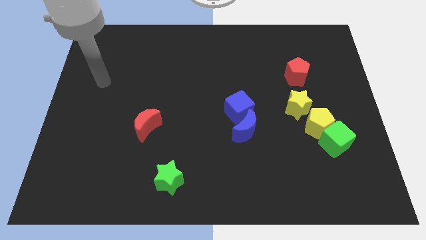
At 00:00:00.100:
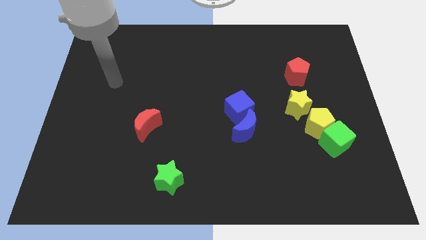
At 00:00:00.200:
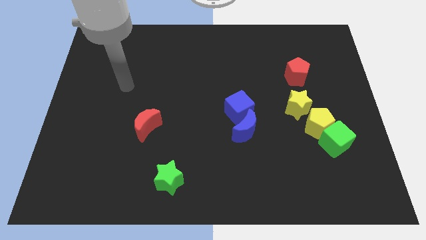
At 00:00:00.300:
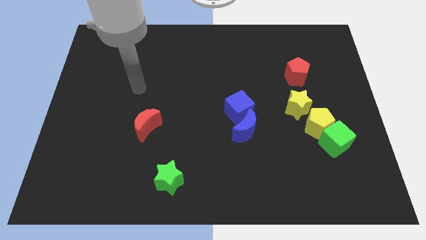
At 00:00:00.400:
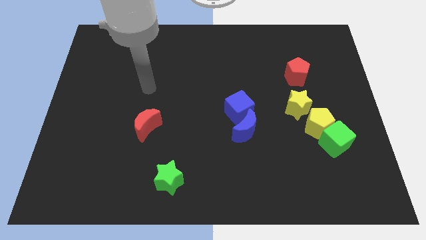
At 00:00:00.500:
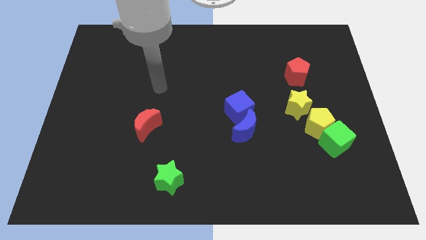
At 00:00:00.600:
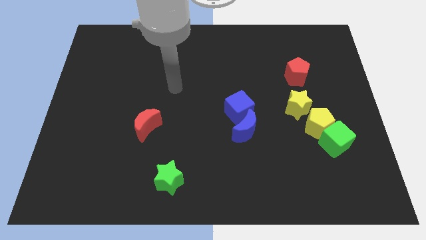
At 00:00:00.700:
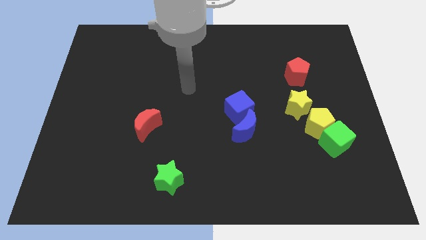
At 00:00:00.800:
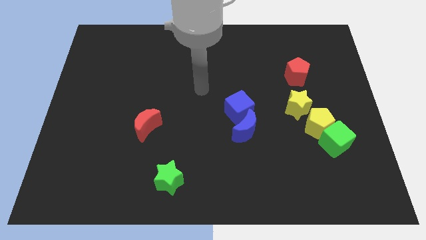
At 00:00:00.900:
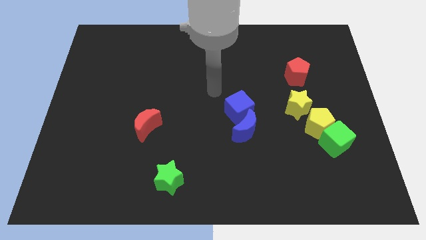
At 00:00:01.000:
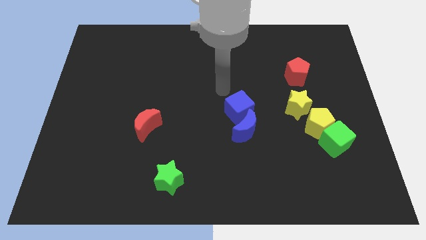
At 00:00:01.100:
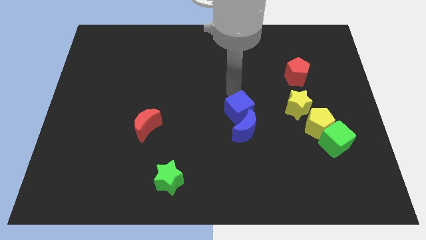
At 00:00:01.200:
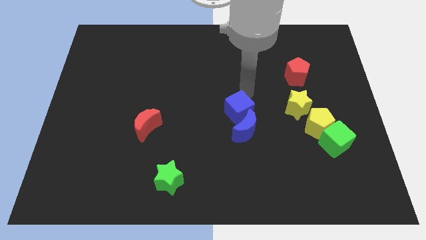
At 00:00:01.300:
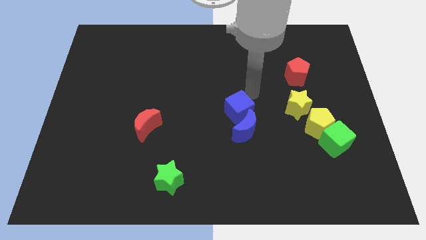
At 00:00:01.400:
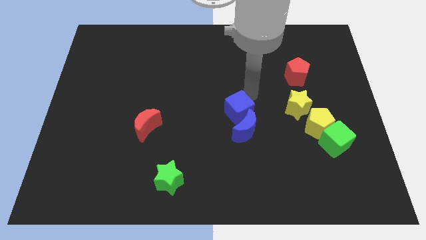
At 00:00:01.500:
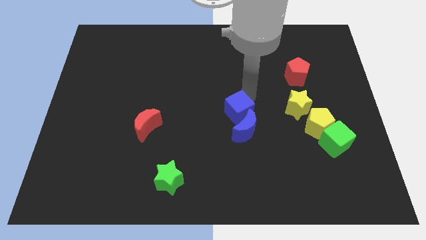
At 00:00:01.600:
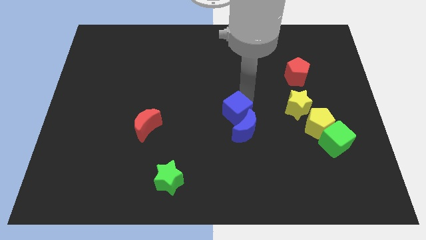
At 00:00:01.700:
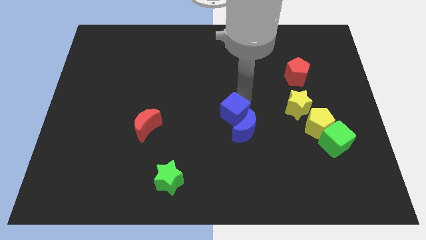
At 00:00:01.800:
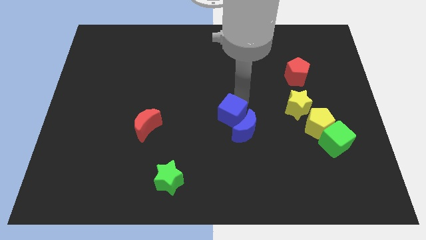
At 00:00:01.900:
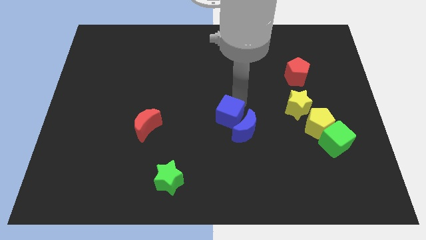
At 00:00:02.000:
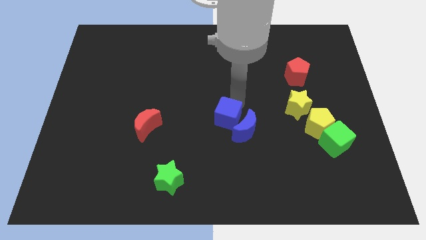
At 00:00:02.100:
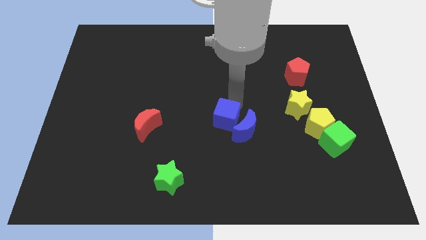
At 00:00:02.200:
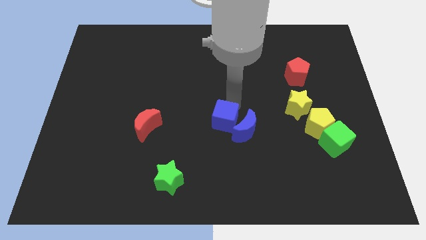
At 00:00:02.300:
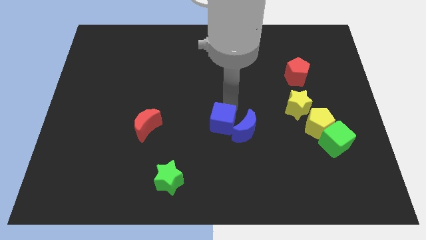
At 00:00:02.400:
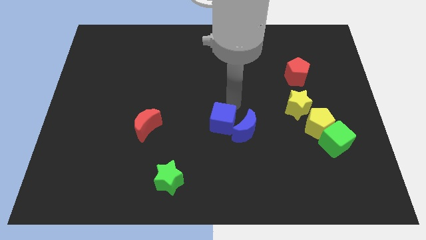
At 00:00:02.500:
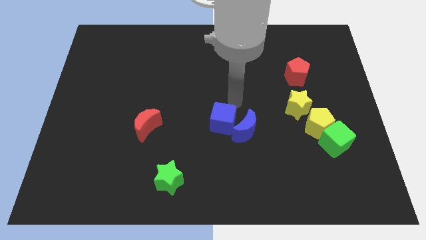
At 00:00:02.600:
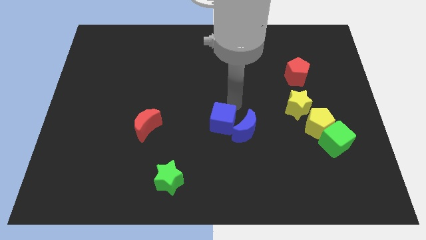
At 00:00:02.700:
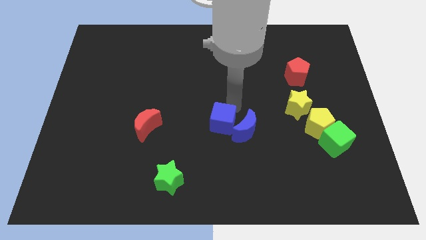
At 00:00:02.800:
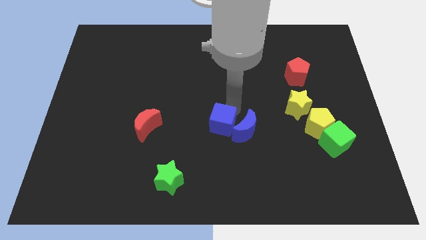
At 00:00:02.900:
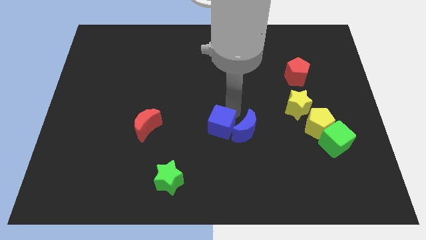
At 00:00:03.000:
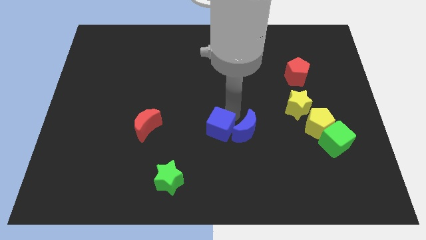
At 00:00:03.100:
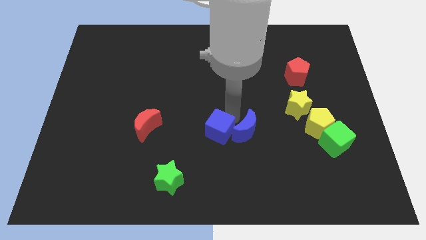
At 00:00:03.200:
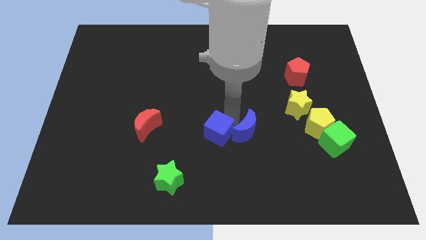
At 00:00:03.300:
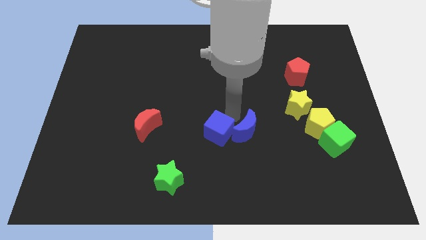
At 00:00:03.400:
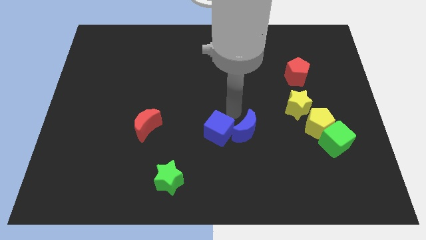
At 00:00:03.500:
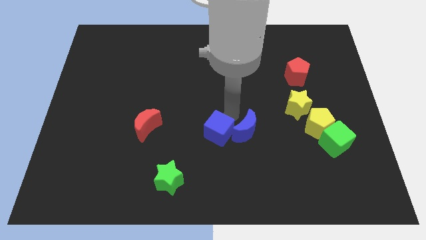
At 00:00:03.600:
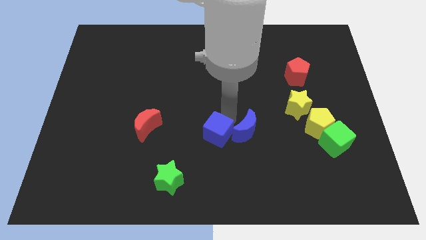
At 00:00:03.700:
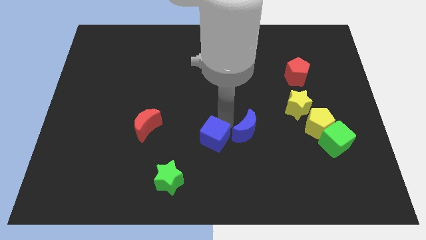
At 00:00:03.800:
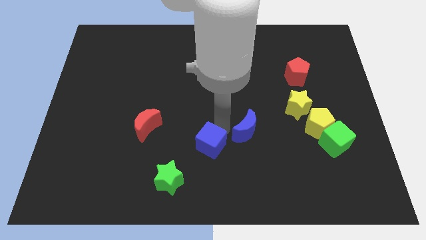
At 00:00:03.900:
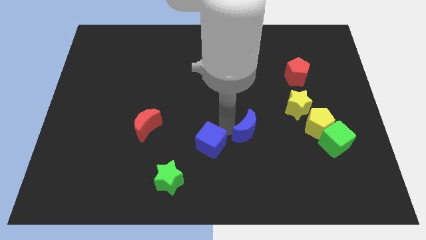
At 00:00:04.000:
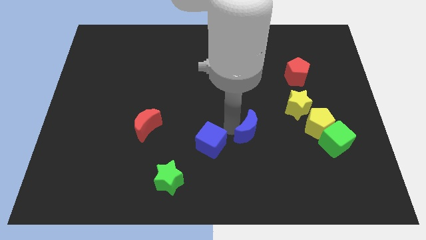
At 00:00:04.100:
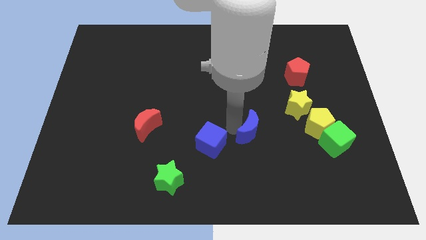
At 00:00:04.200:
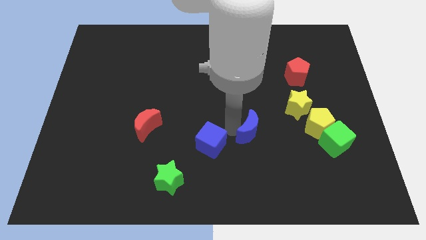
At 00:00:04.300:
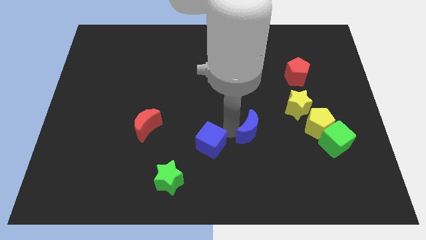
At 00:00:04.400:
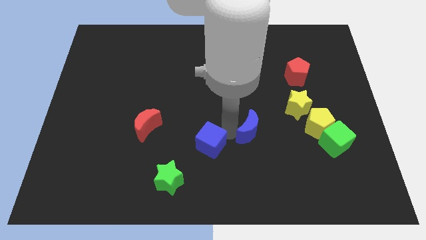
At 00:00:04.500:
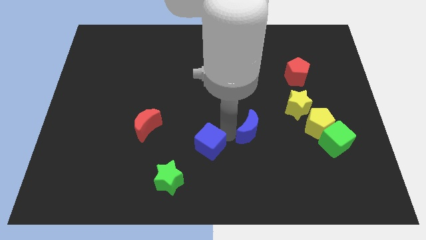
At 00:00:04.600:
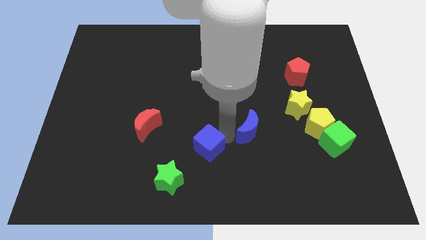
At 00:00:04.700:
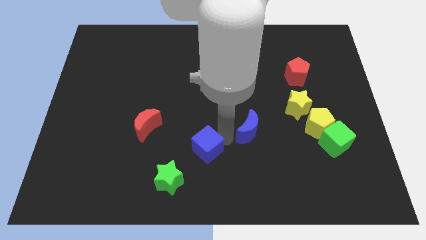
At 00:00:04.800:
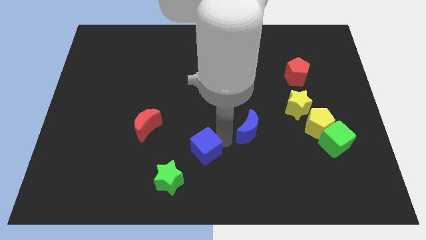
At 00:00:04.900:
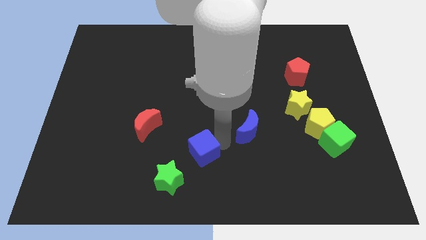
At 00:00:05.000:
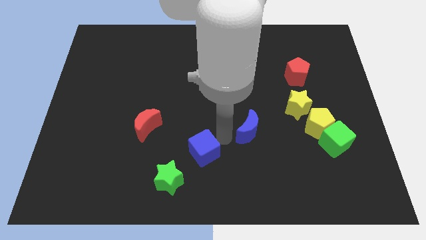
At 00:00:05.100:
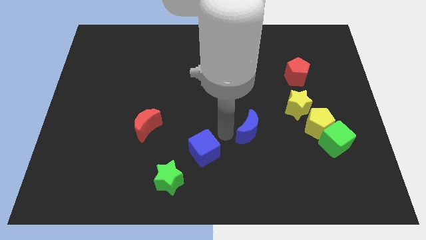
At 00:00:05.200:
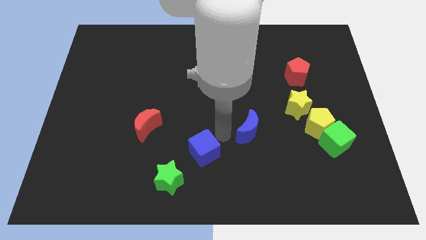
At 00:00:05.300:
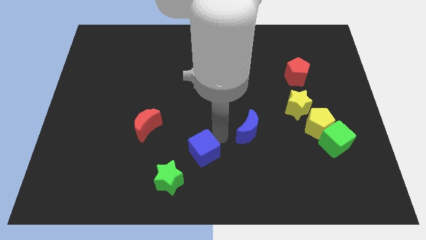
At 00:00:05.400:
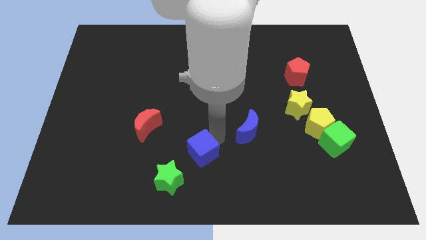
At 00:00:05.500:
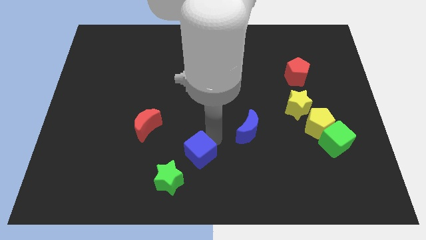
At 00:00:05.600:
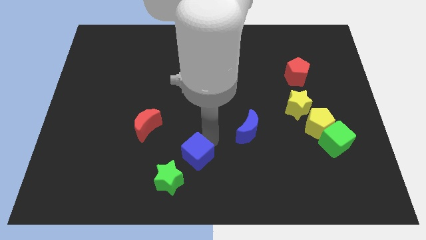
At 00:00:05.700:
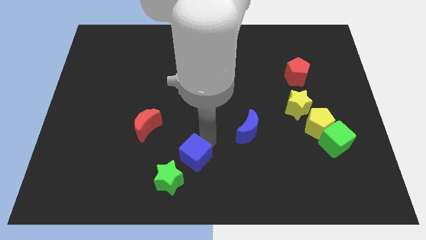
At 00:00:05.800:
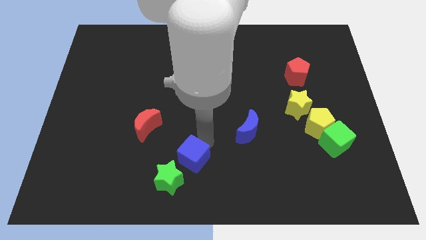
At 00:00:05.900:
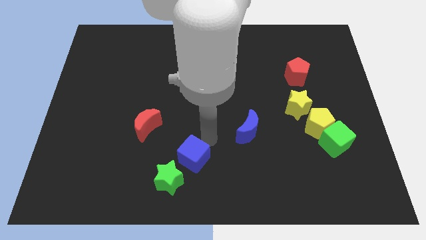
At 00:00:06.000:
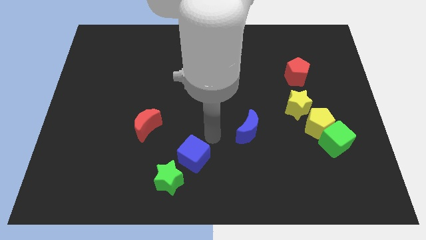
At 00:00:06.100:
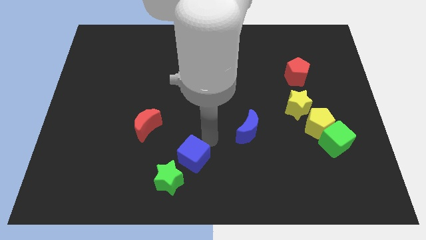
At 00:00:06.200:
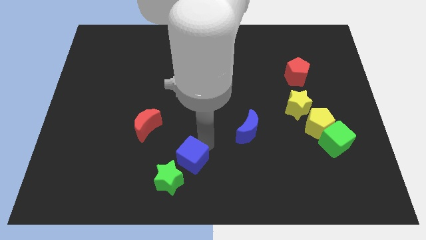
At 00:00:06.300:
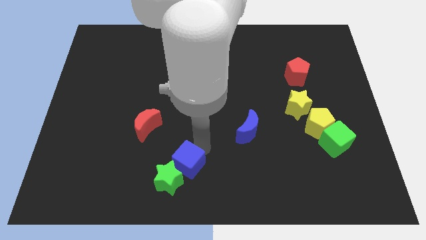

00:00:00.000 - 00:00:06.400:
push the blue cube to the green star

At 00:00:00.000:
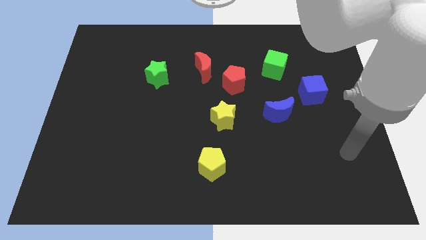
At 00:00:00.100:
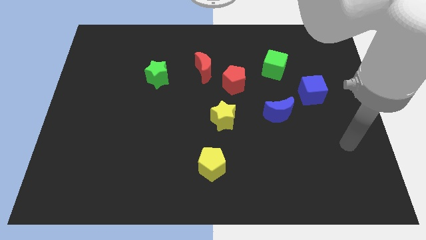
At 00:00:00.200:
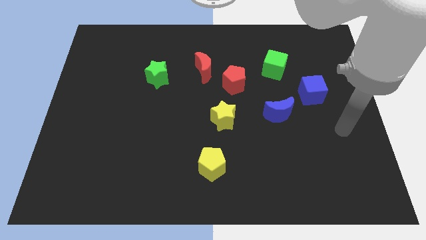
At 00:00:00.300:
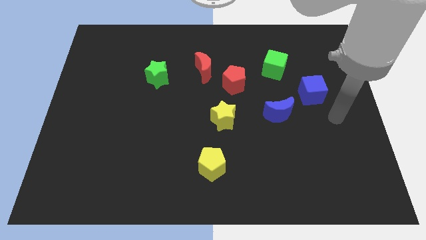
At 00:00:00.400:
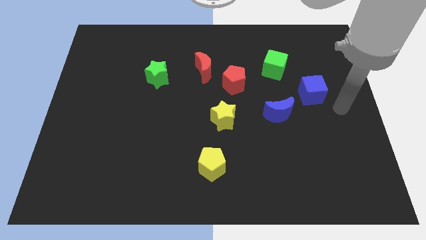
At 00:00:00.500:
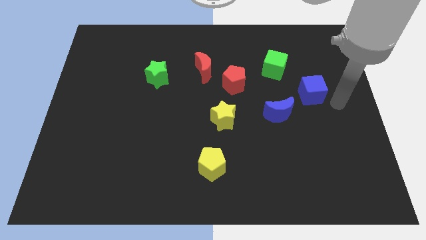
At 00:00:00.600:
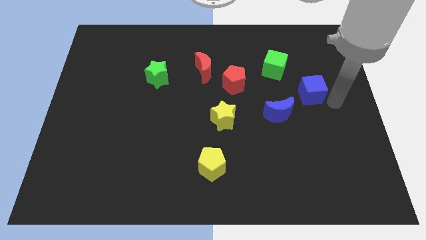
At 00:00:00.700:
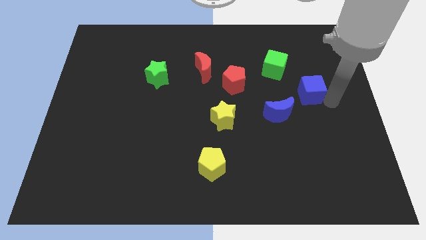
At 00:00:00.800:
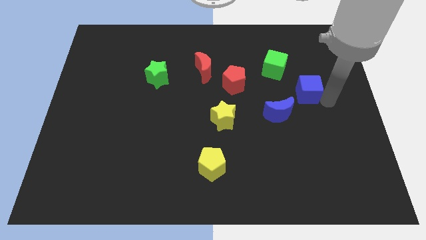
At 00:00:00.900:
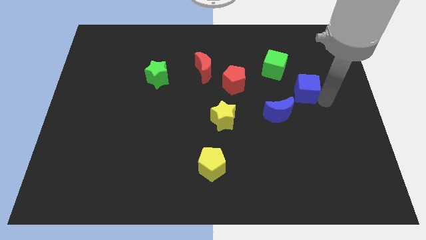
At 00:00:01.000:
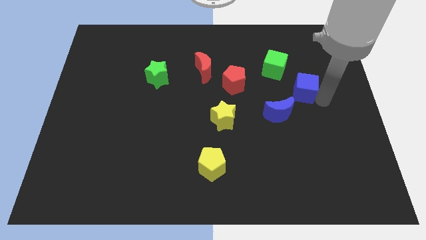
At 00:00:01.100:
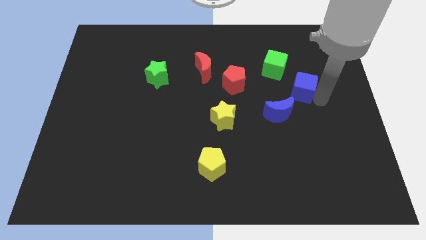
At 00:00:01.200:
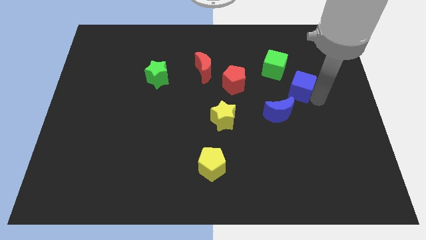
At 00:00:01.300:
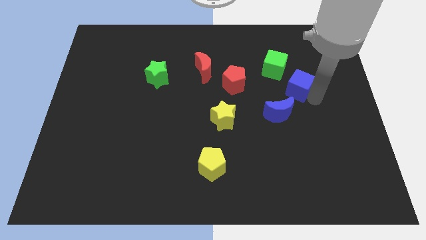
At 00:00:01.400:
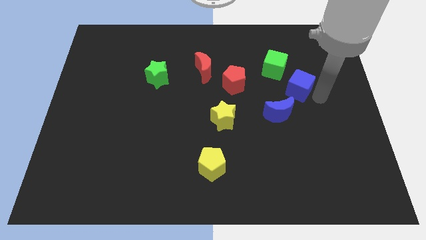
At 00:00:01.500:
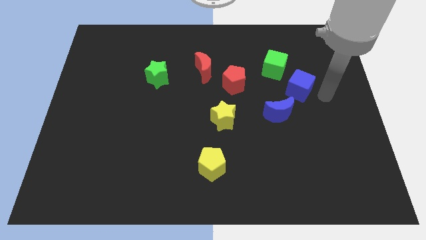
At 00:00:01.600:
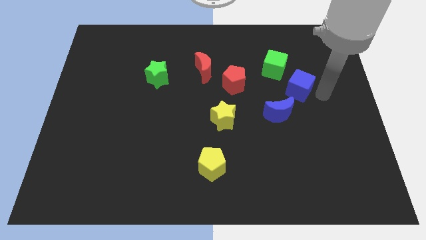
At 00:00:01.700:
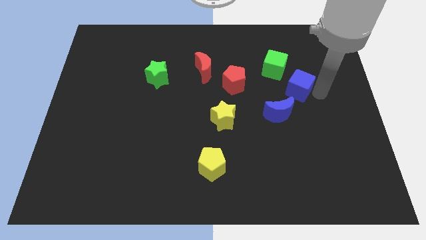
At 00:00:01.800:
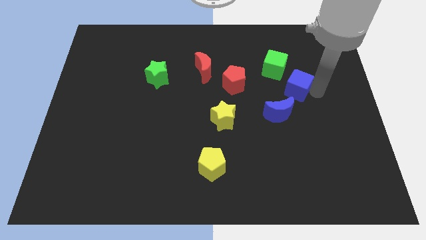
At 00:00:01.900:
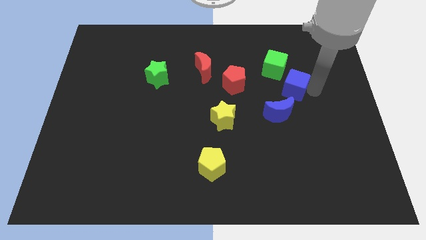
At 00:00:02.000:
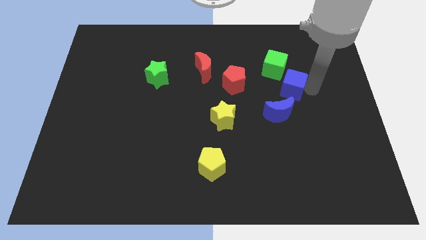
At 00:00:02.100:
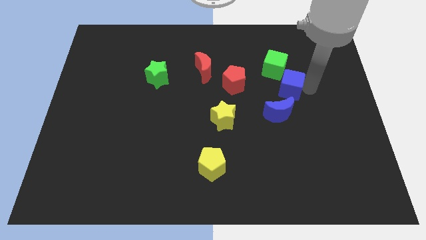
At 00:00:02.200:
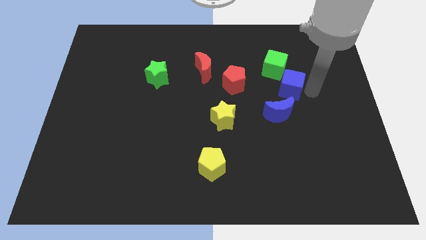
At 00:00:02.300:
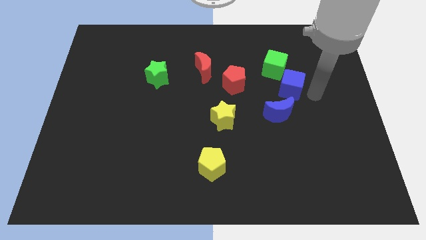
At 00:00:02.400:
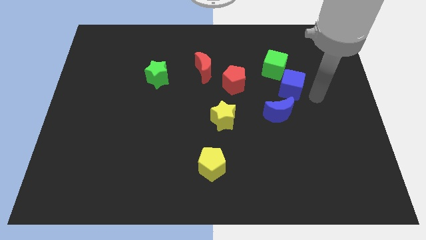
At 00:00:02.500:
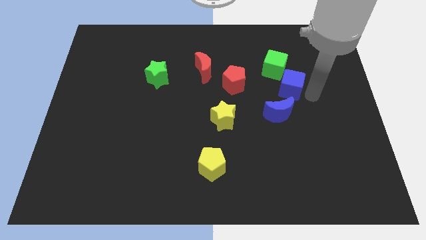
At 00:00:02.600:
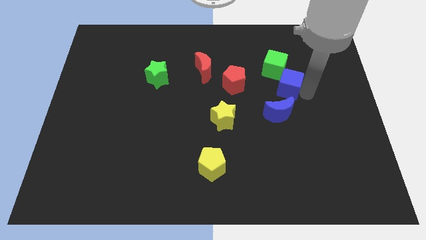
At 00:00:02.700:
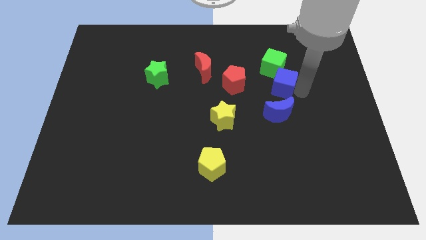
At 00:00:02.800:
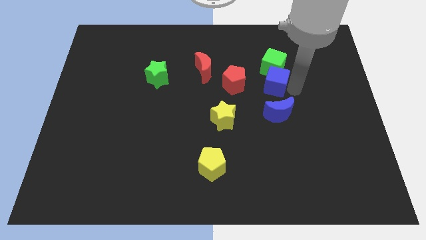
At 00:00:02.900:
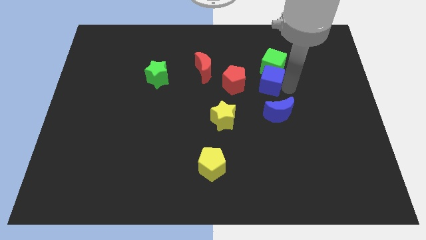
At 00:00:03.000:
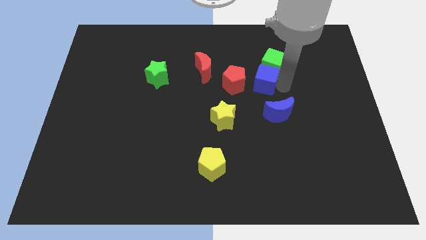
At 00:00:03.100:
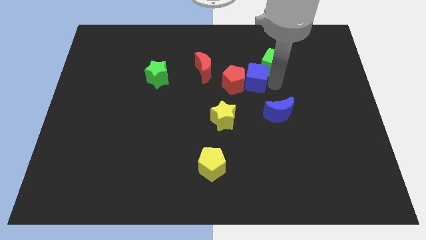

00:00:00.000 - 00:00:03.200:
slide the blue cube close to the red pentagon
